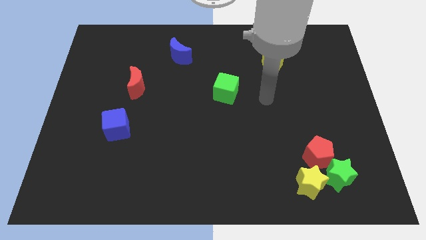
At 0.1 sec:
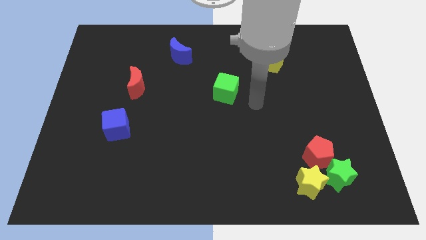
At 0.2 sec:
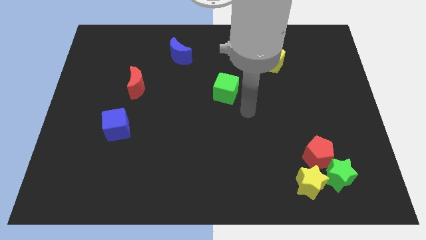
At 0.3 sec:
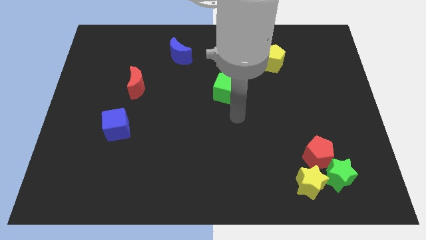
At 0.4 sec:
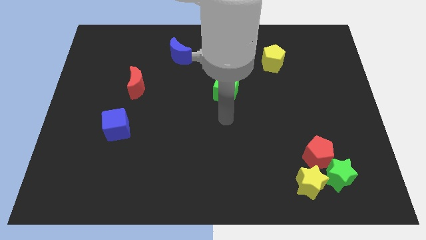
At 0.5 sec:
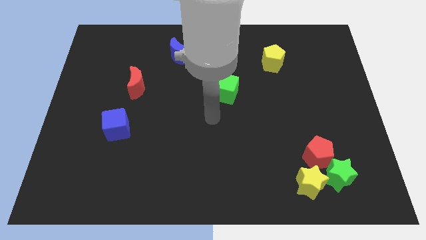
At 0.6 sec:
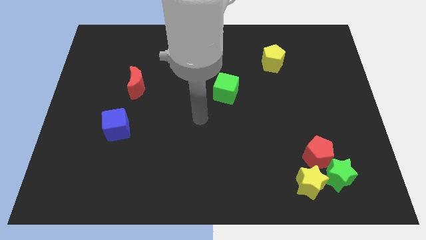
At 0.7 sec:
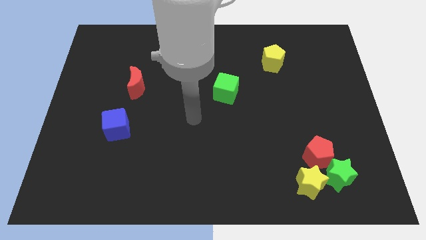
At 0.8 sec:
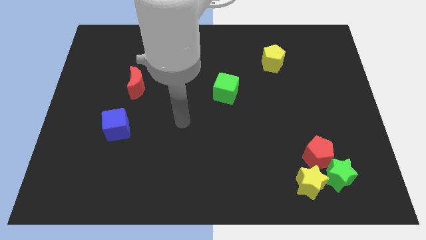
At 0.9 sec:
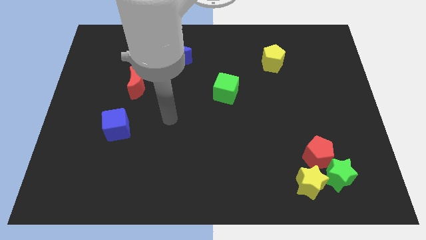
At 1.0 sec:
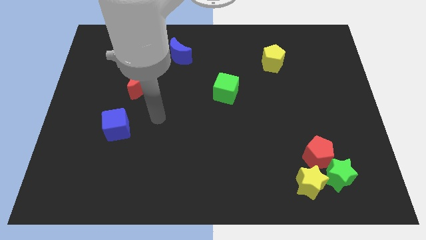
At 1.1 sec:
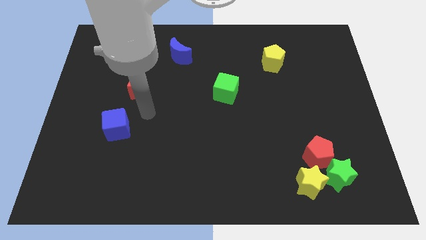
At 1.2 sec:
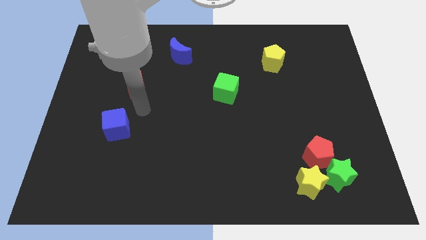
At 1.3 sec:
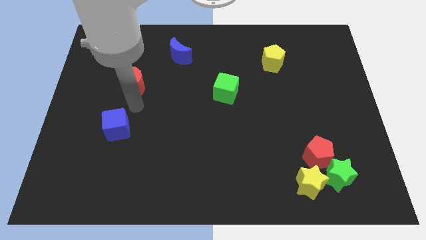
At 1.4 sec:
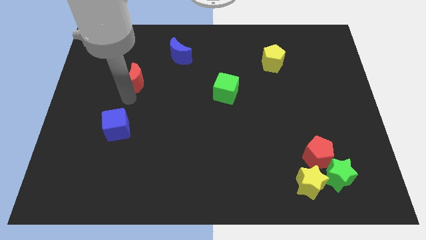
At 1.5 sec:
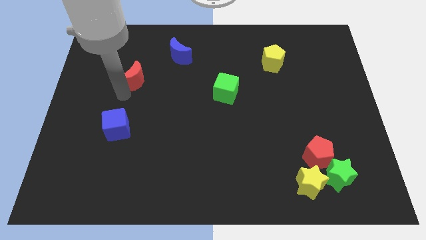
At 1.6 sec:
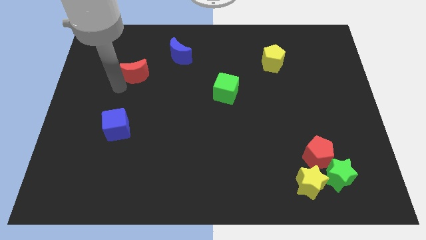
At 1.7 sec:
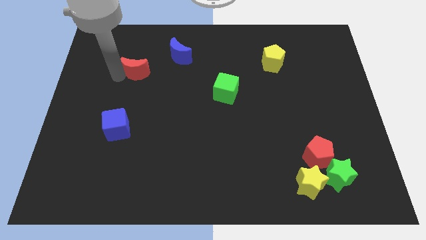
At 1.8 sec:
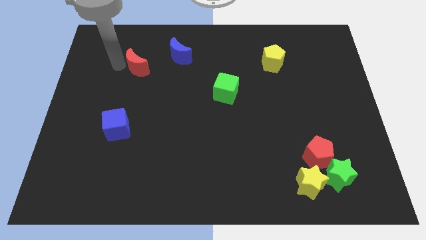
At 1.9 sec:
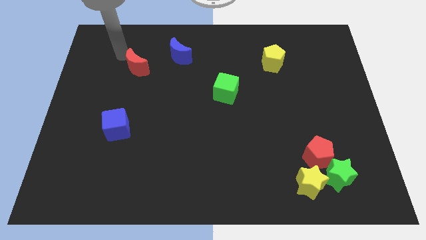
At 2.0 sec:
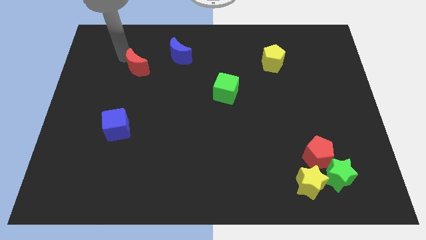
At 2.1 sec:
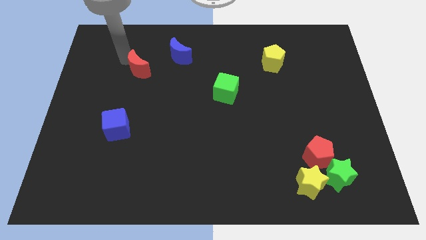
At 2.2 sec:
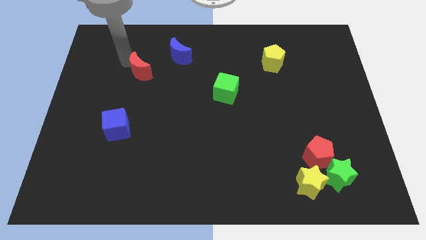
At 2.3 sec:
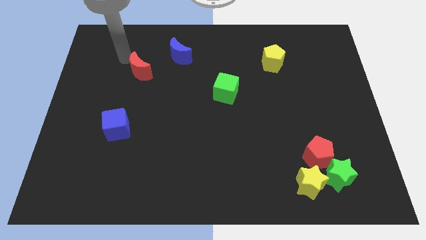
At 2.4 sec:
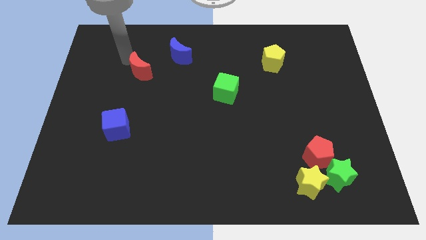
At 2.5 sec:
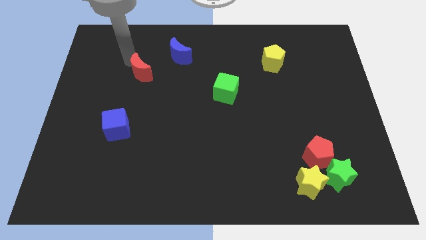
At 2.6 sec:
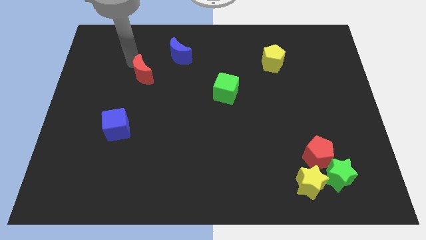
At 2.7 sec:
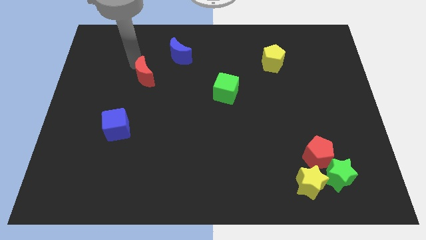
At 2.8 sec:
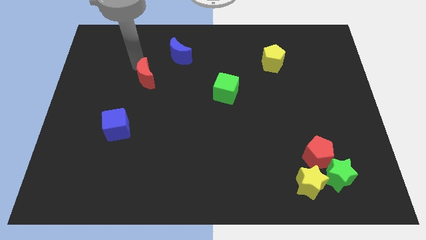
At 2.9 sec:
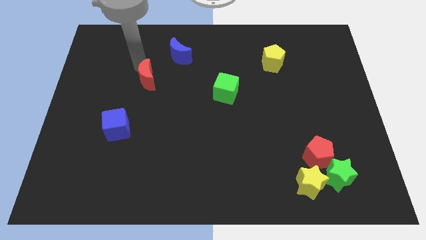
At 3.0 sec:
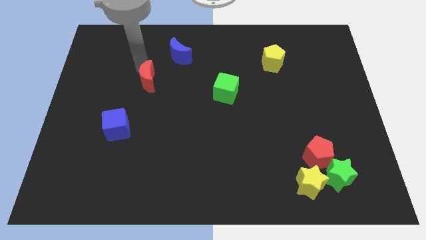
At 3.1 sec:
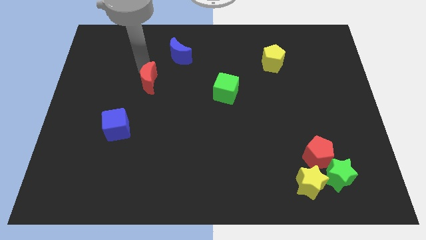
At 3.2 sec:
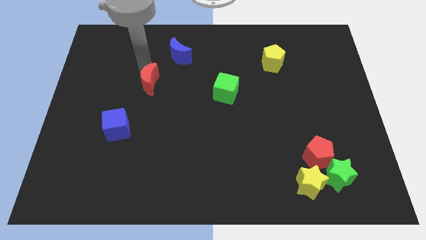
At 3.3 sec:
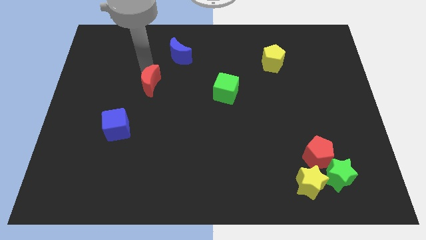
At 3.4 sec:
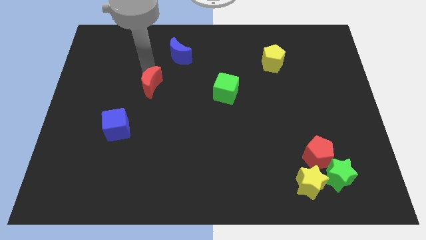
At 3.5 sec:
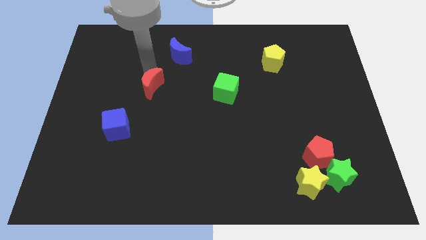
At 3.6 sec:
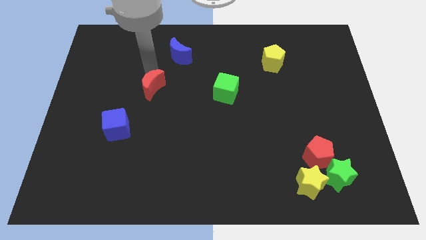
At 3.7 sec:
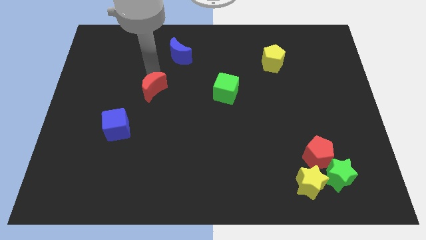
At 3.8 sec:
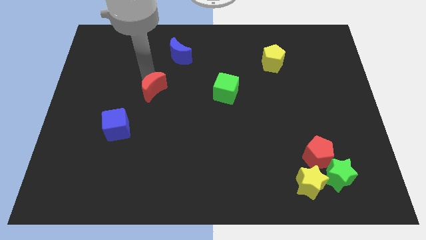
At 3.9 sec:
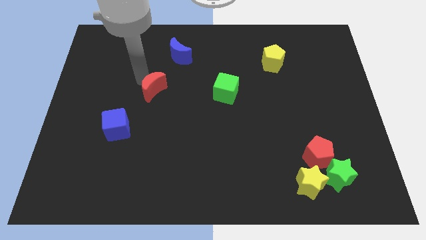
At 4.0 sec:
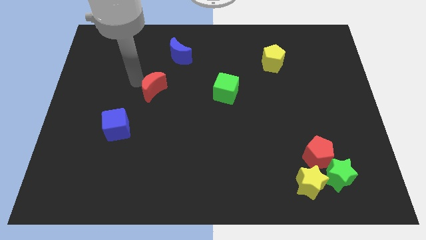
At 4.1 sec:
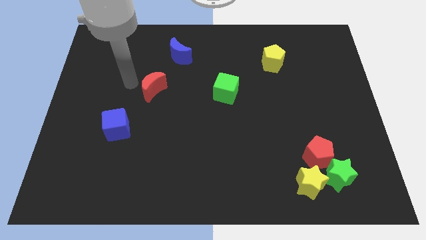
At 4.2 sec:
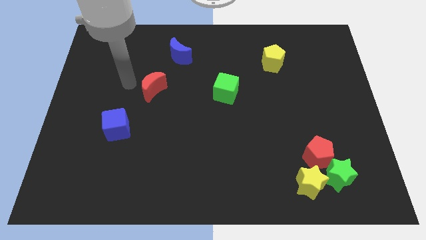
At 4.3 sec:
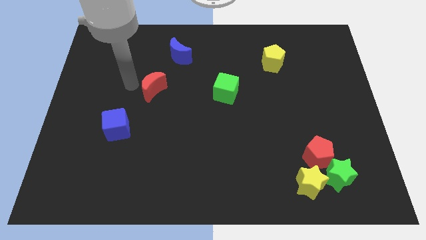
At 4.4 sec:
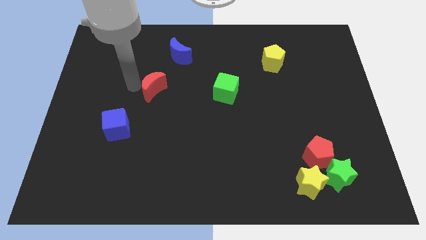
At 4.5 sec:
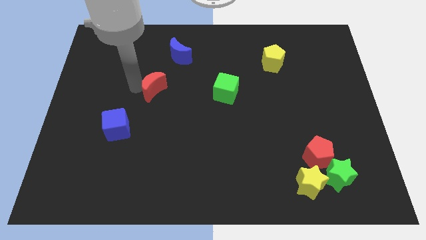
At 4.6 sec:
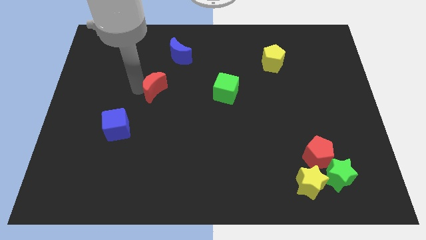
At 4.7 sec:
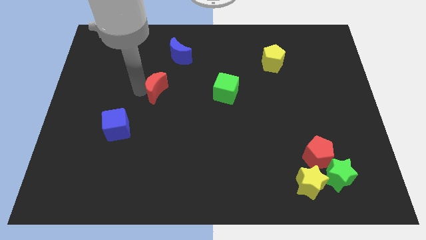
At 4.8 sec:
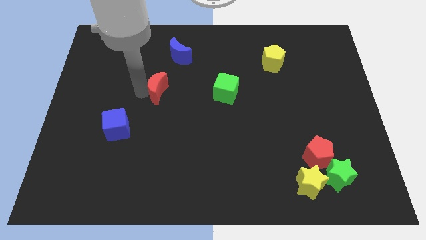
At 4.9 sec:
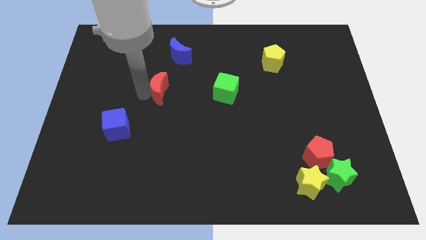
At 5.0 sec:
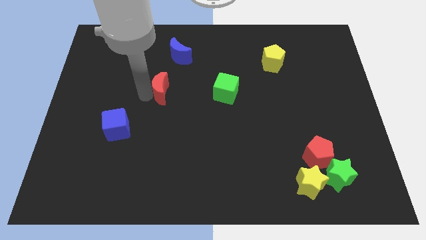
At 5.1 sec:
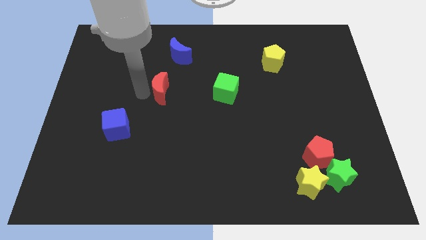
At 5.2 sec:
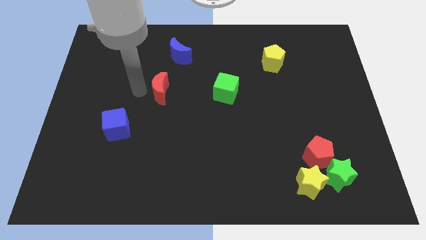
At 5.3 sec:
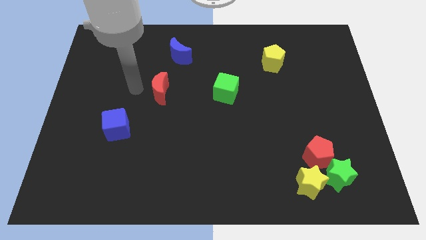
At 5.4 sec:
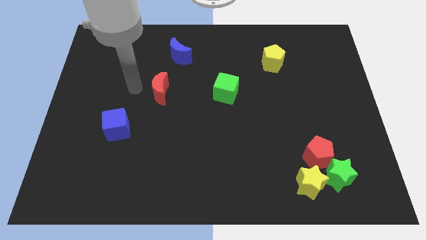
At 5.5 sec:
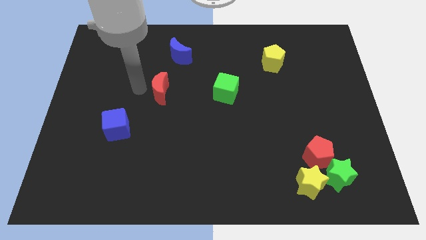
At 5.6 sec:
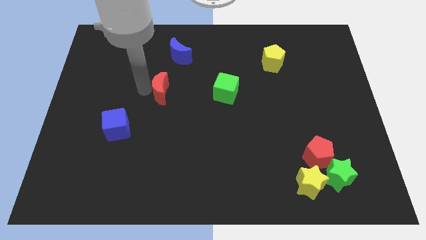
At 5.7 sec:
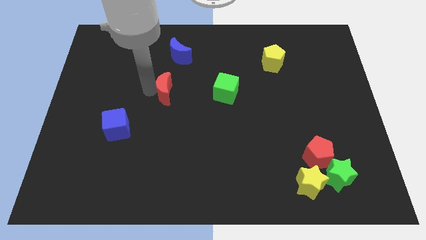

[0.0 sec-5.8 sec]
put the red moon to the middle of the board
